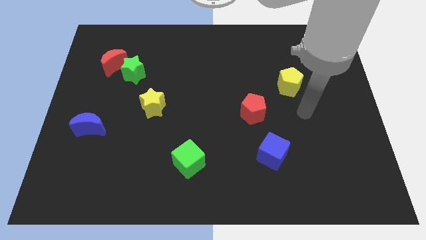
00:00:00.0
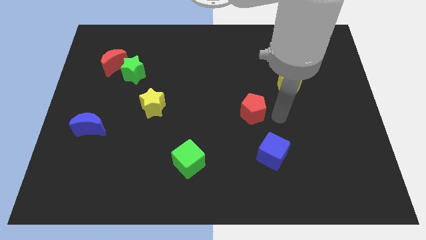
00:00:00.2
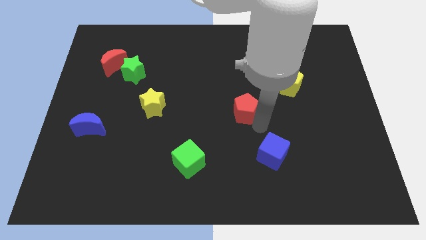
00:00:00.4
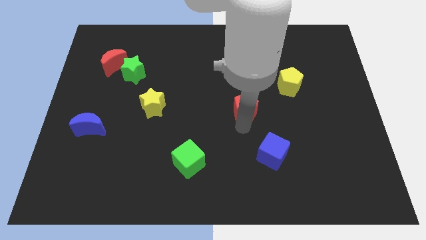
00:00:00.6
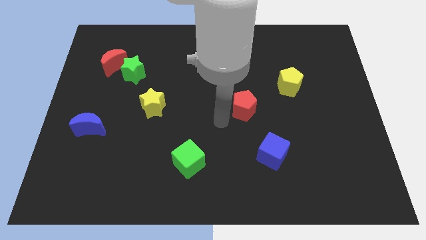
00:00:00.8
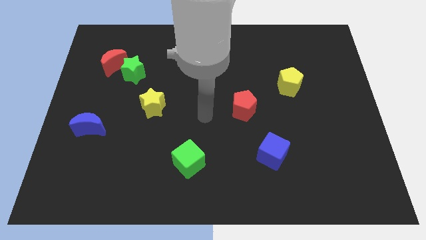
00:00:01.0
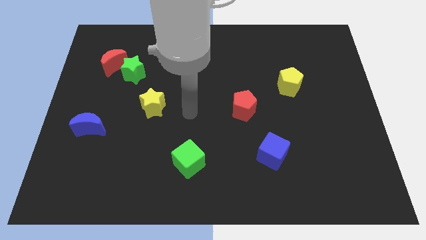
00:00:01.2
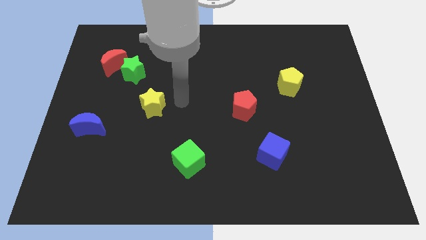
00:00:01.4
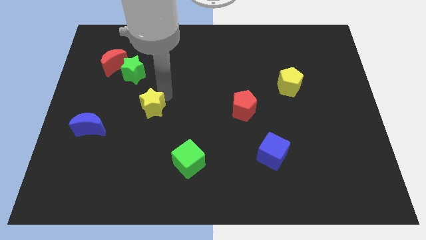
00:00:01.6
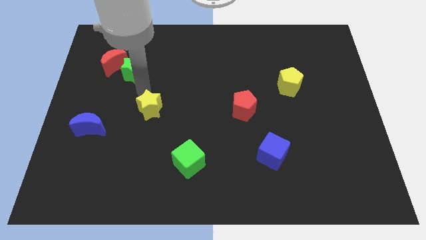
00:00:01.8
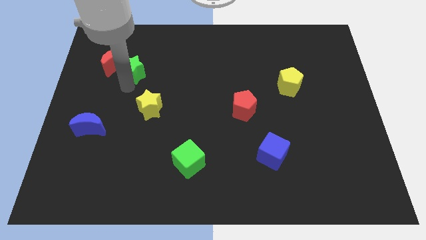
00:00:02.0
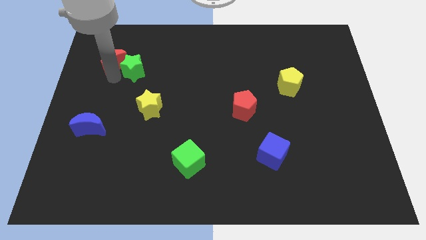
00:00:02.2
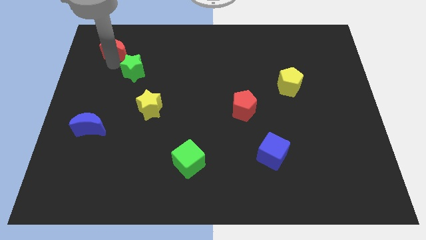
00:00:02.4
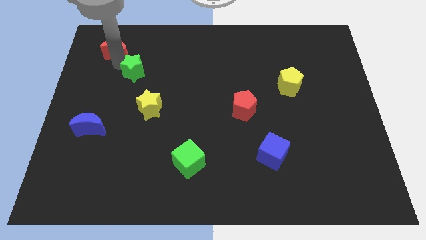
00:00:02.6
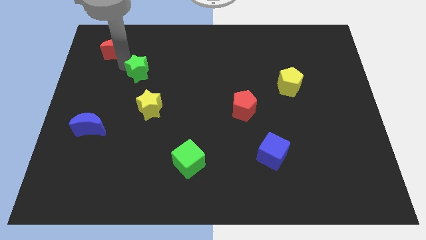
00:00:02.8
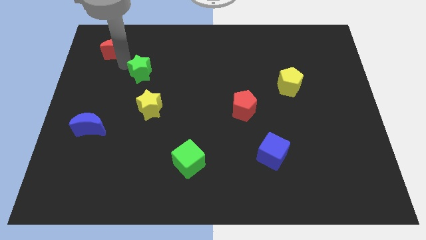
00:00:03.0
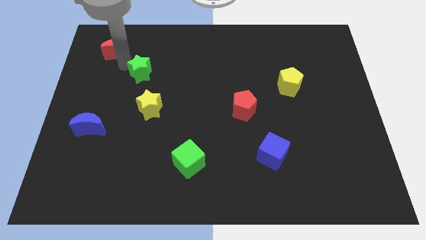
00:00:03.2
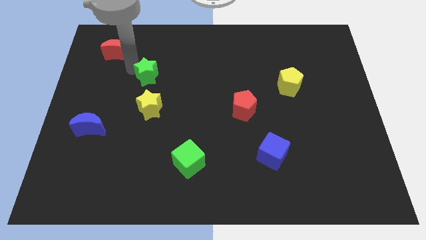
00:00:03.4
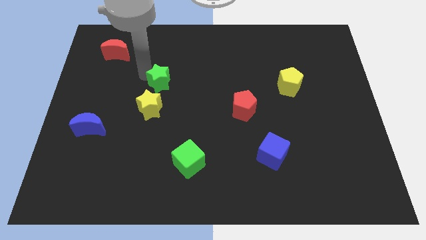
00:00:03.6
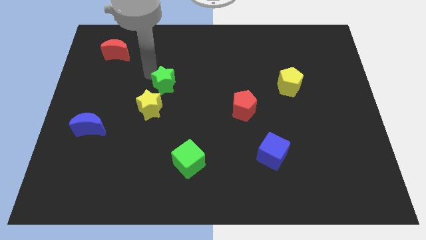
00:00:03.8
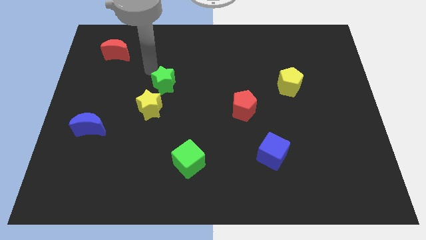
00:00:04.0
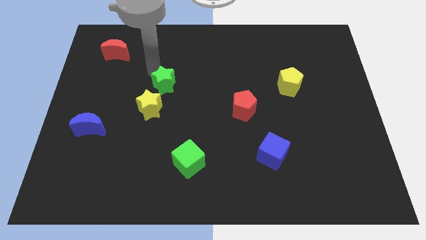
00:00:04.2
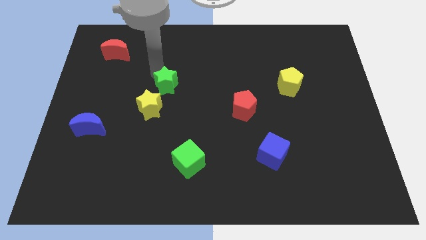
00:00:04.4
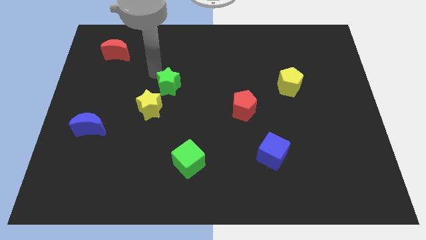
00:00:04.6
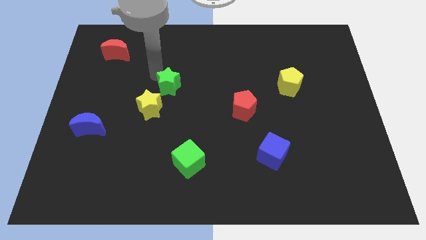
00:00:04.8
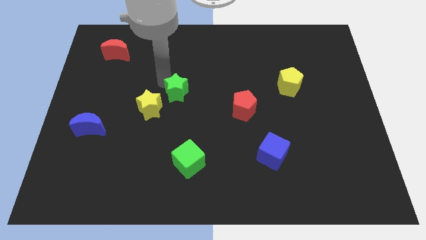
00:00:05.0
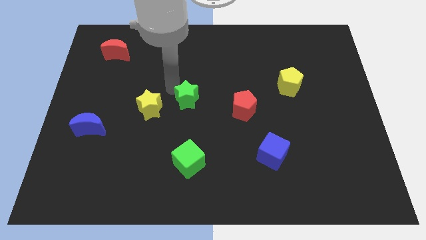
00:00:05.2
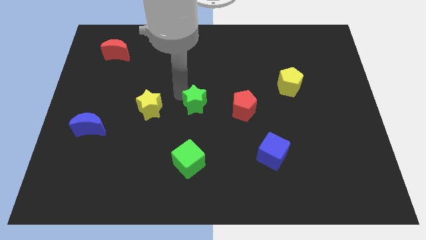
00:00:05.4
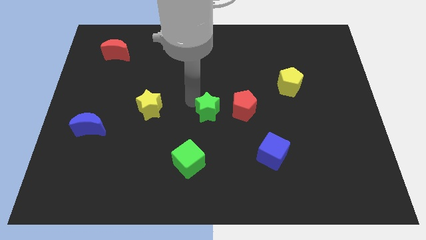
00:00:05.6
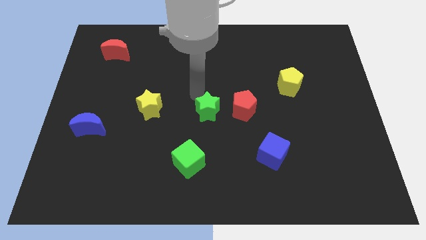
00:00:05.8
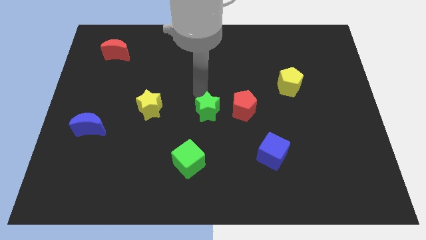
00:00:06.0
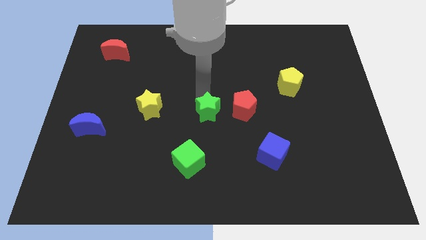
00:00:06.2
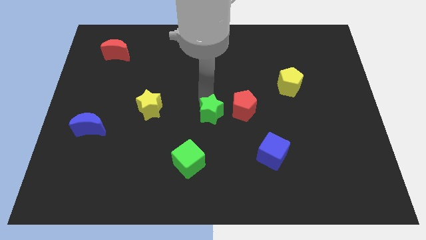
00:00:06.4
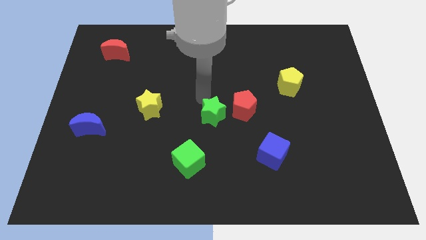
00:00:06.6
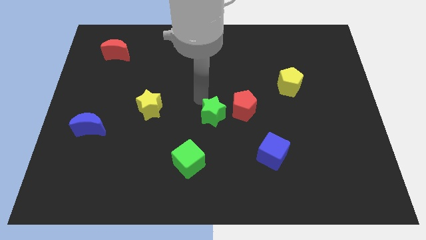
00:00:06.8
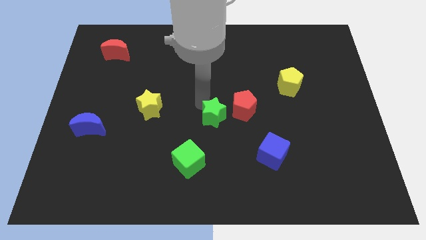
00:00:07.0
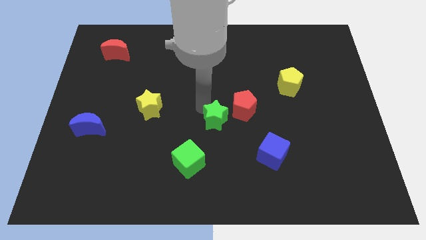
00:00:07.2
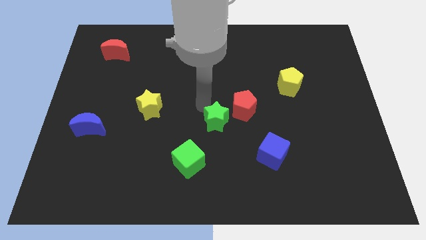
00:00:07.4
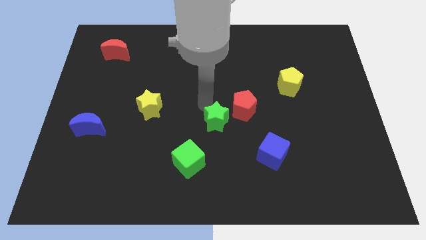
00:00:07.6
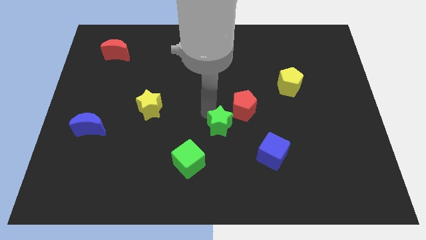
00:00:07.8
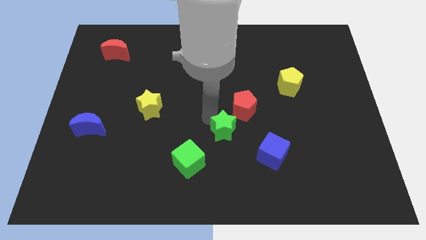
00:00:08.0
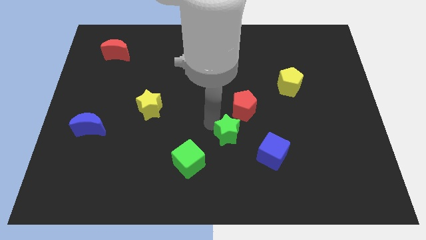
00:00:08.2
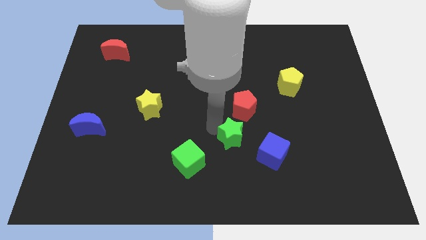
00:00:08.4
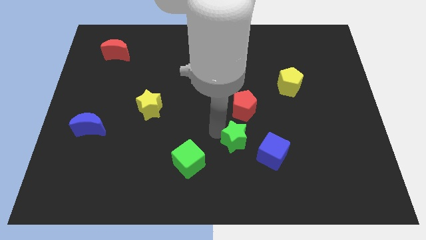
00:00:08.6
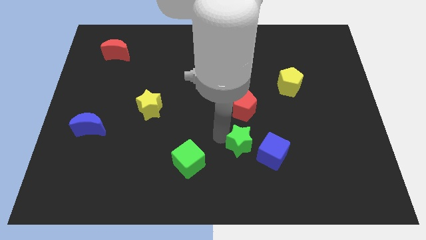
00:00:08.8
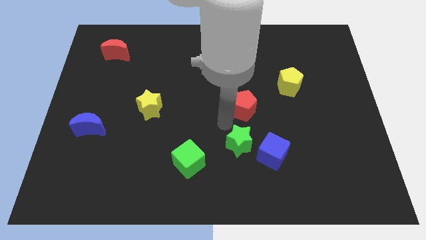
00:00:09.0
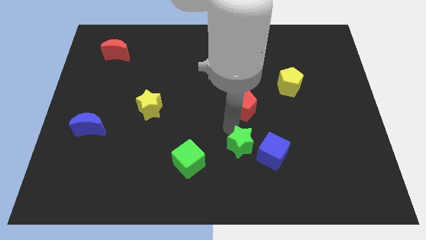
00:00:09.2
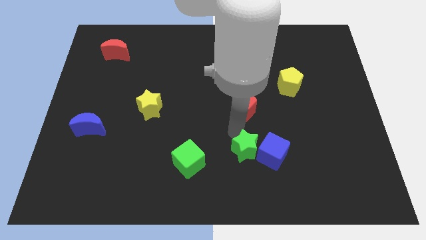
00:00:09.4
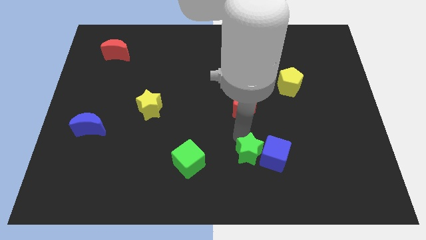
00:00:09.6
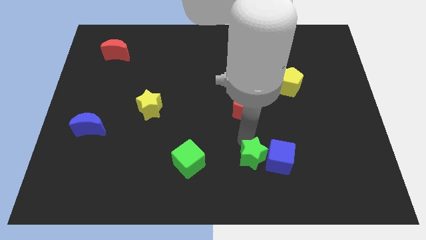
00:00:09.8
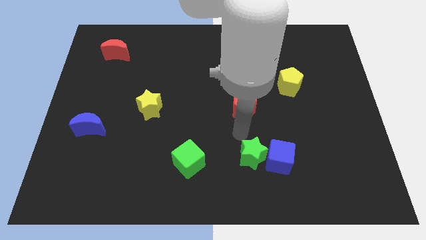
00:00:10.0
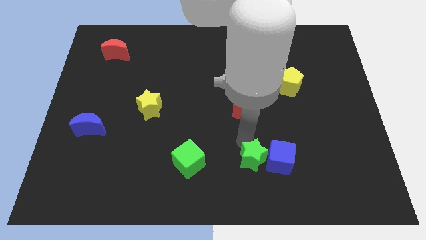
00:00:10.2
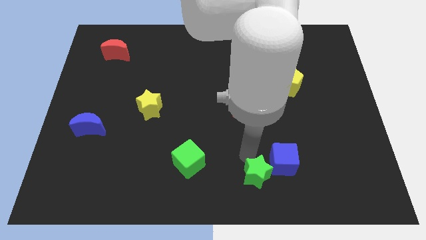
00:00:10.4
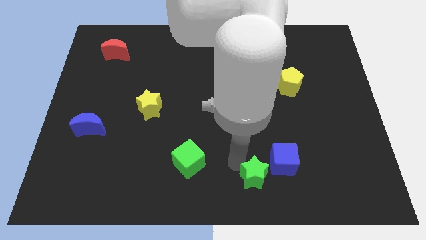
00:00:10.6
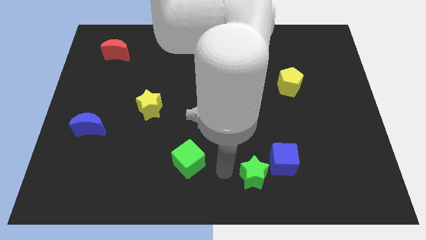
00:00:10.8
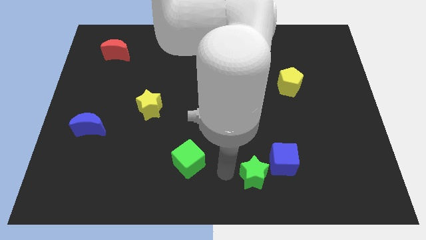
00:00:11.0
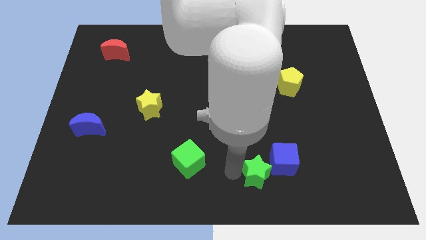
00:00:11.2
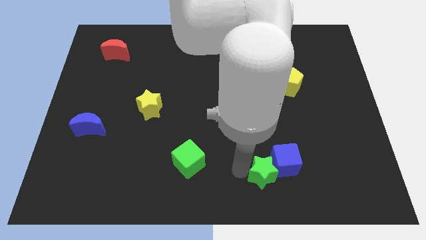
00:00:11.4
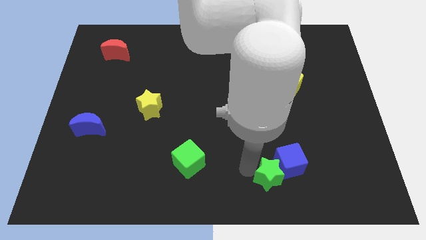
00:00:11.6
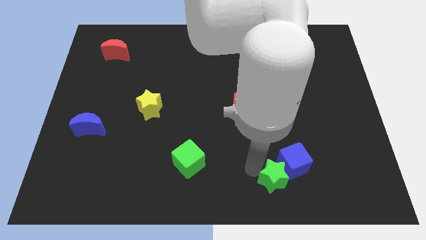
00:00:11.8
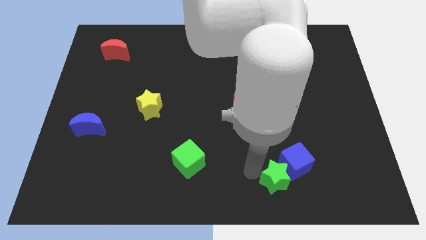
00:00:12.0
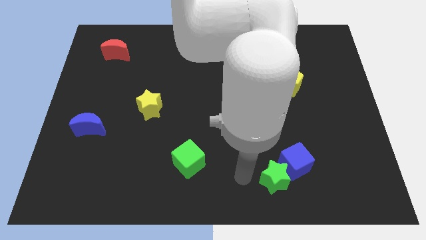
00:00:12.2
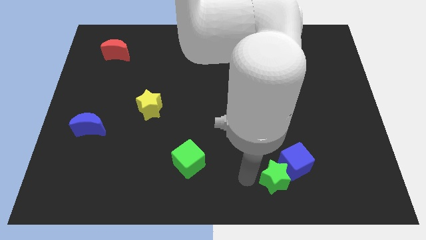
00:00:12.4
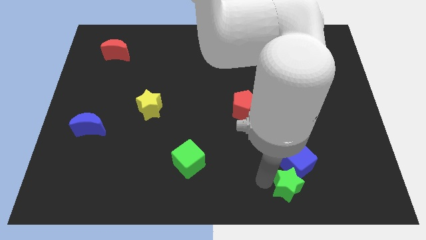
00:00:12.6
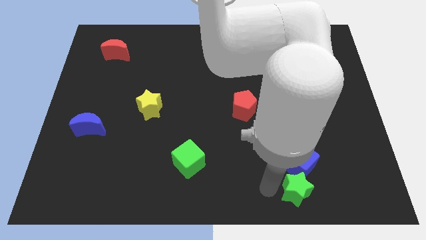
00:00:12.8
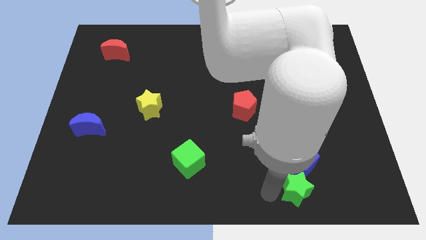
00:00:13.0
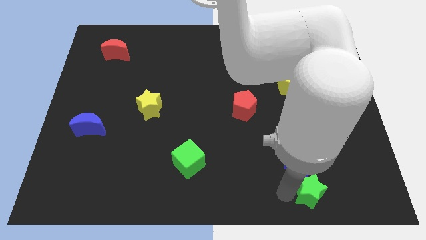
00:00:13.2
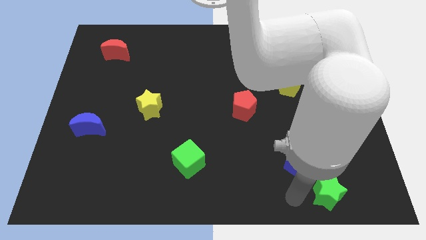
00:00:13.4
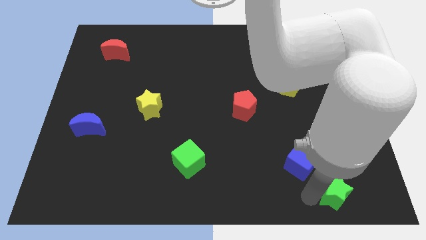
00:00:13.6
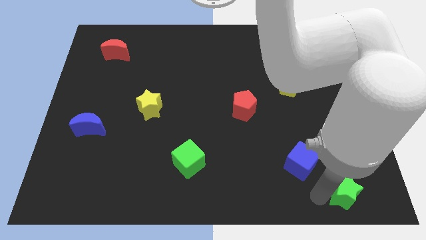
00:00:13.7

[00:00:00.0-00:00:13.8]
slide the green star to the bottom right

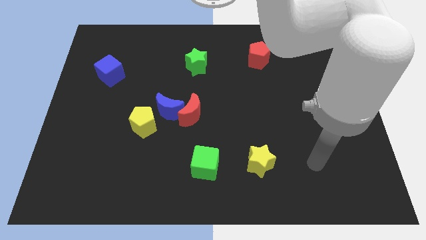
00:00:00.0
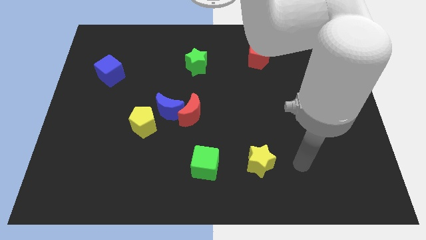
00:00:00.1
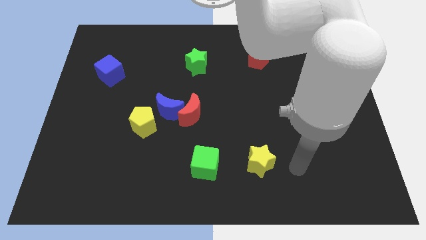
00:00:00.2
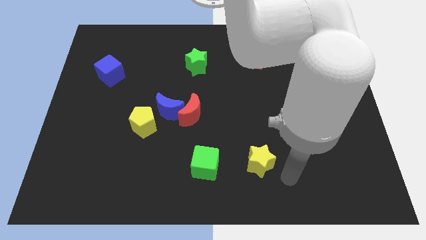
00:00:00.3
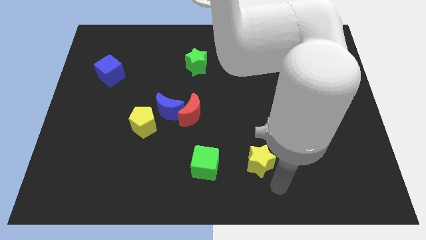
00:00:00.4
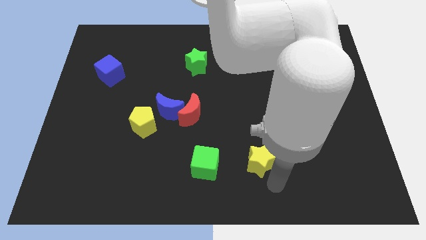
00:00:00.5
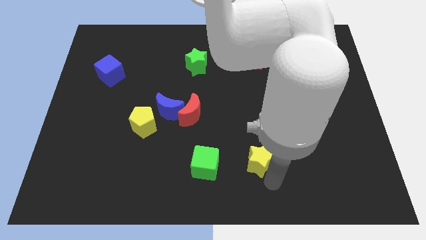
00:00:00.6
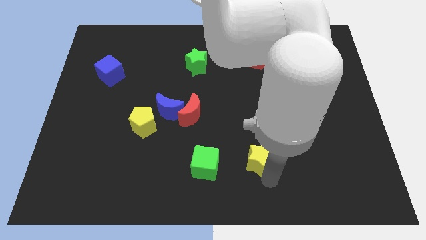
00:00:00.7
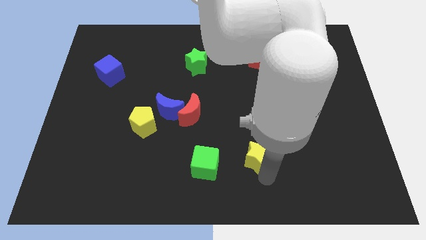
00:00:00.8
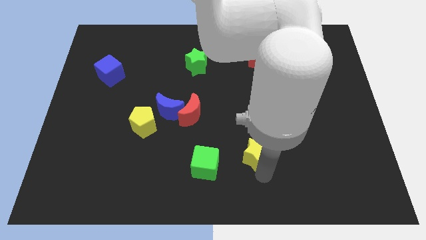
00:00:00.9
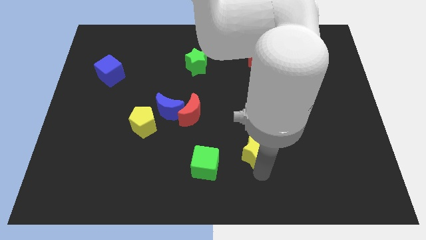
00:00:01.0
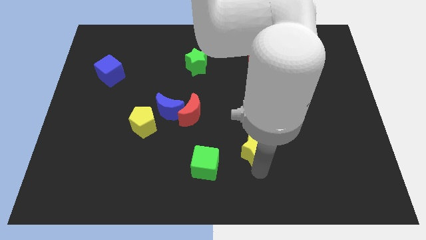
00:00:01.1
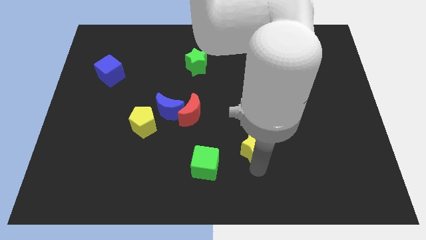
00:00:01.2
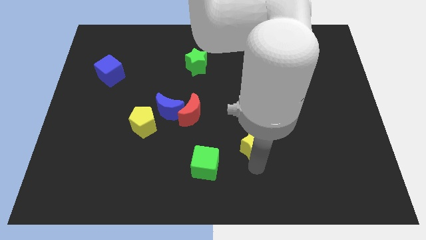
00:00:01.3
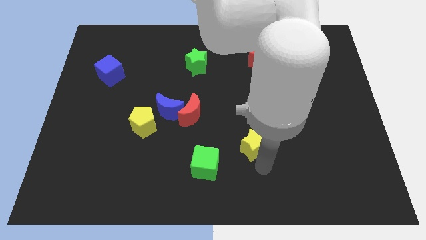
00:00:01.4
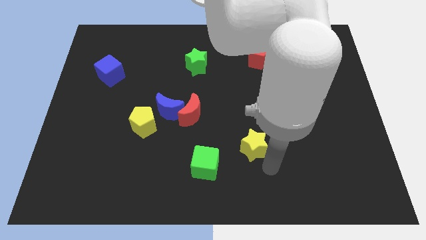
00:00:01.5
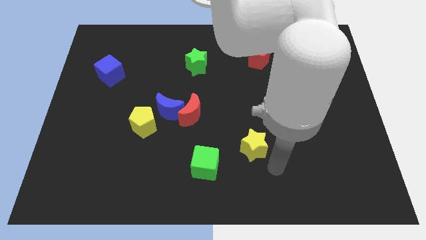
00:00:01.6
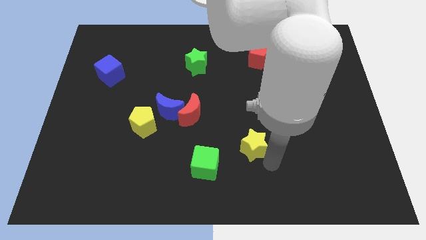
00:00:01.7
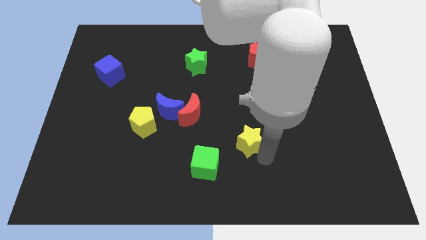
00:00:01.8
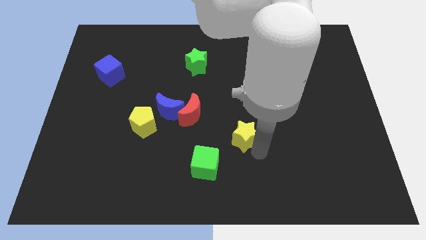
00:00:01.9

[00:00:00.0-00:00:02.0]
put the yellow star to the center of the board
